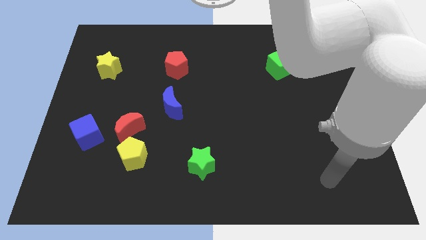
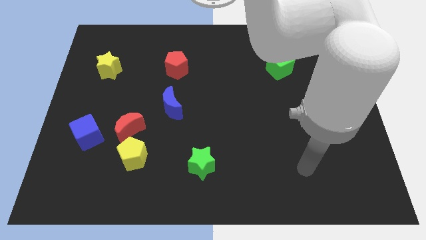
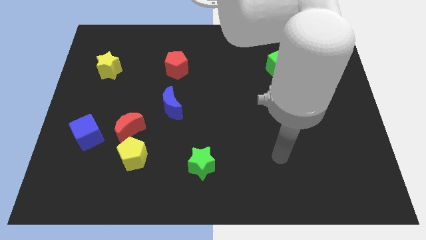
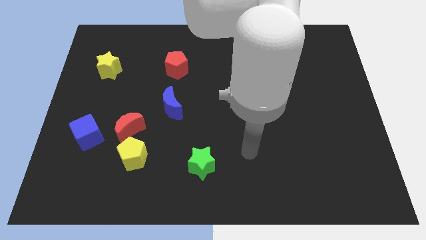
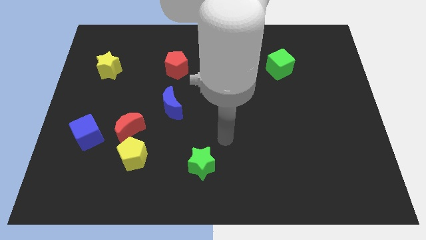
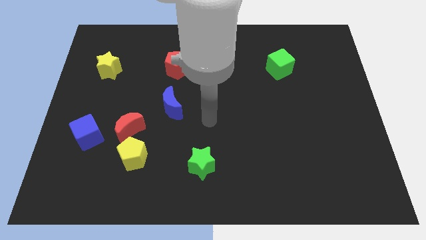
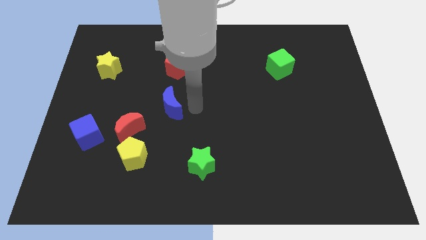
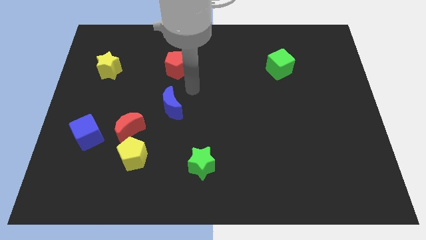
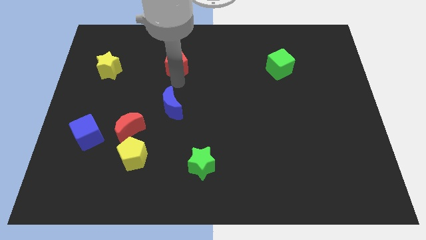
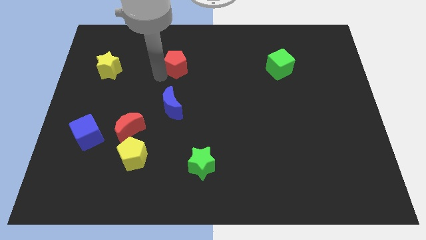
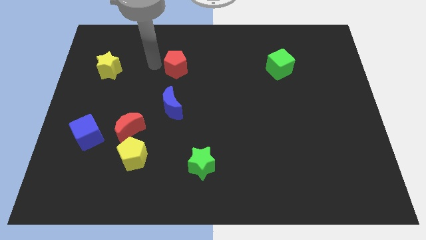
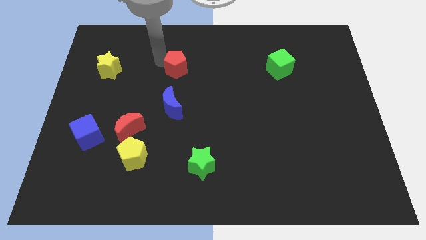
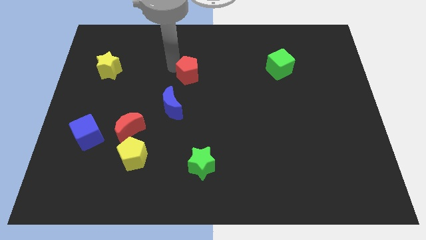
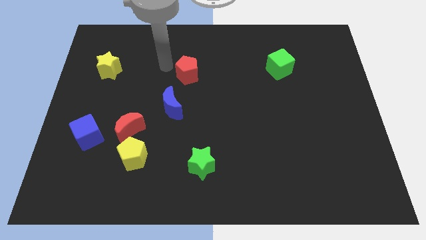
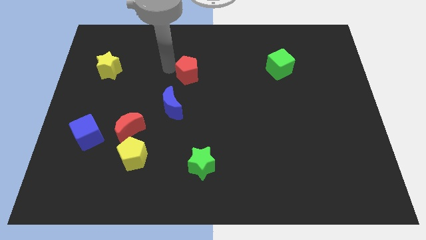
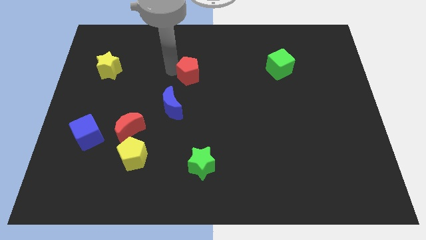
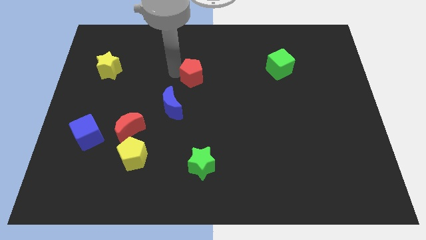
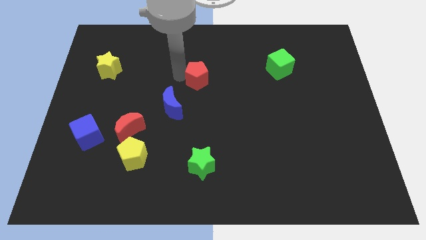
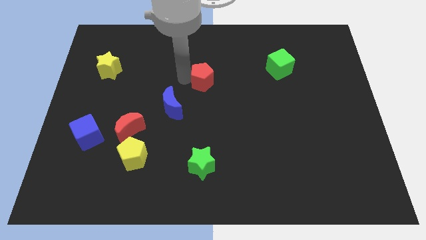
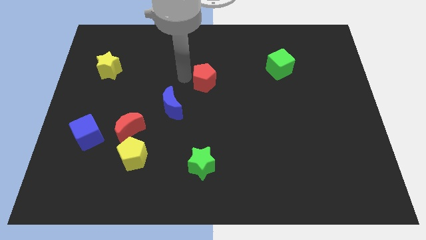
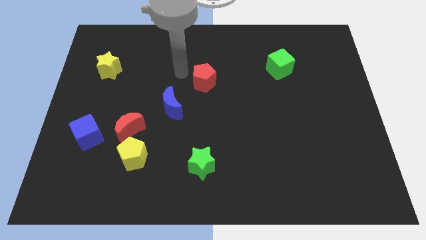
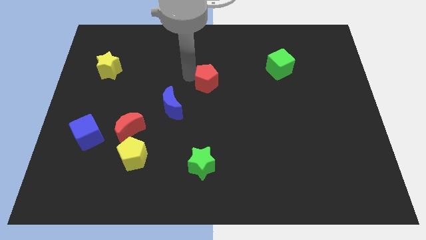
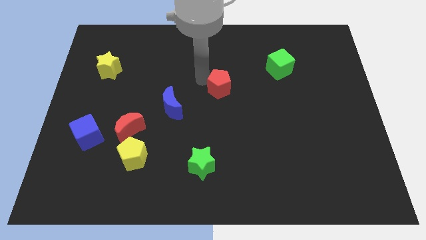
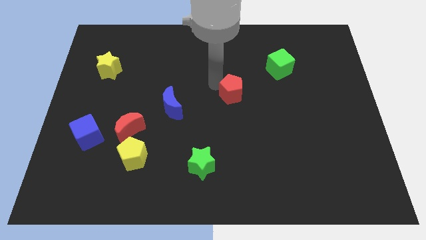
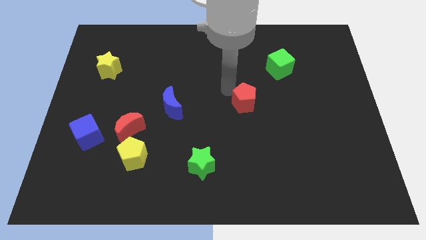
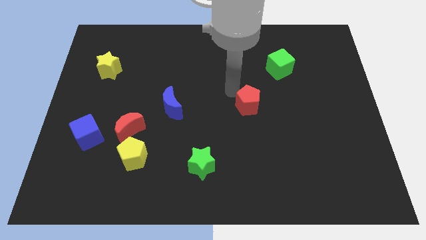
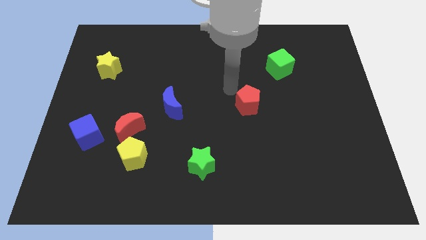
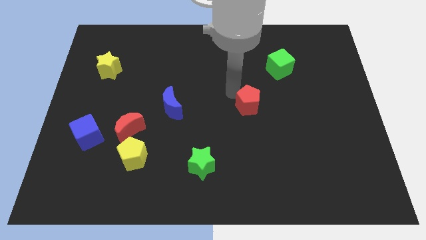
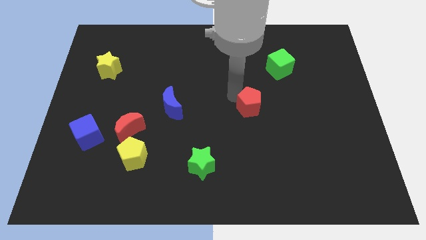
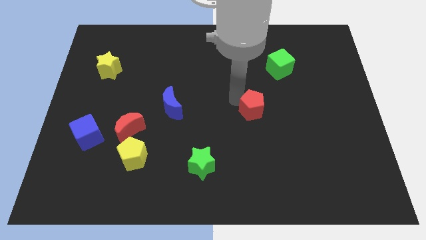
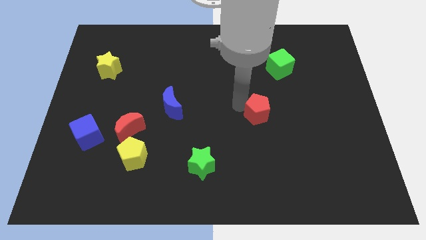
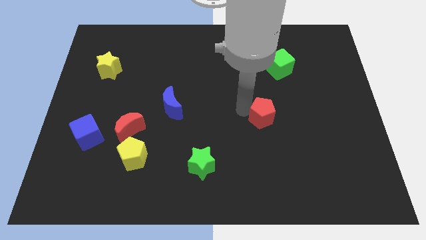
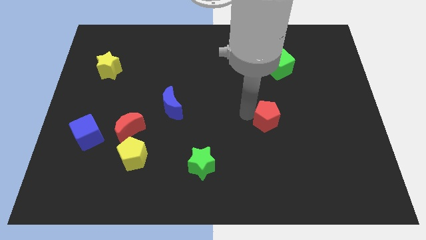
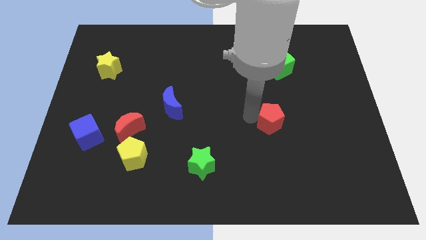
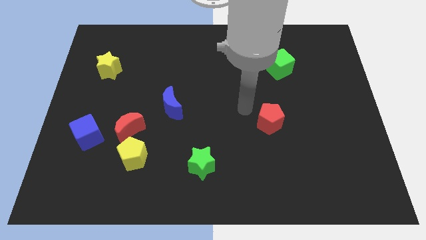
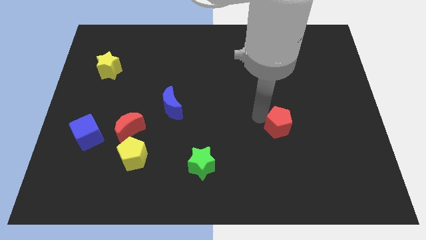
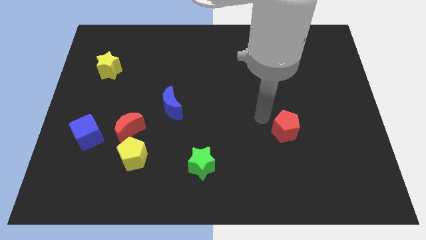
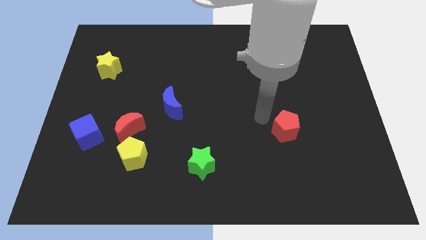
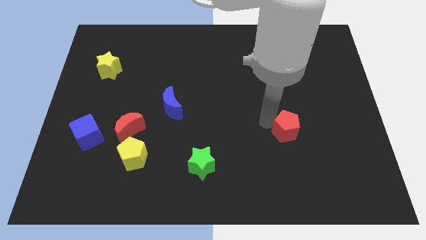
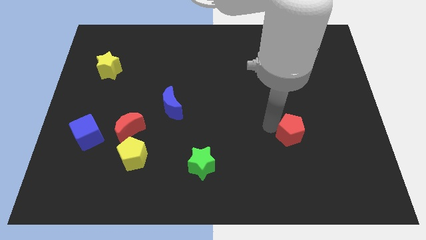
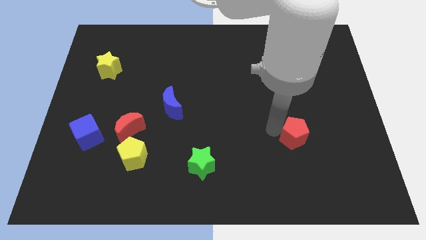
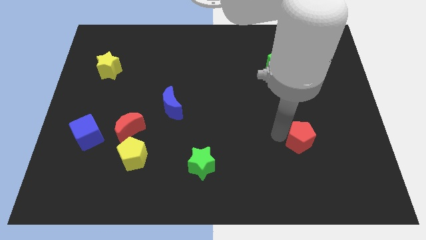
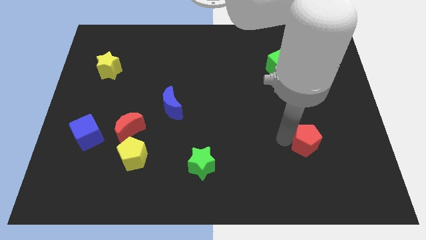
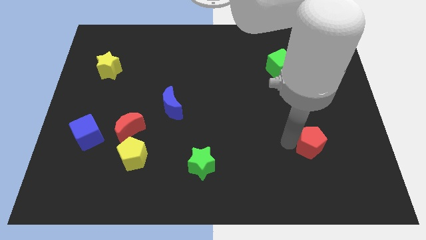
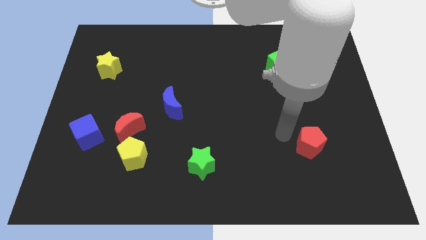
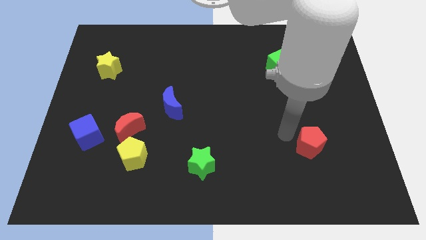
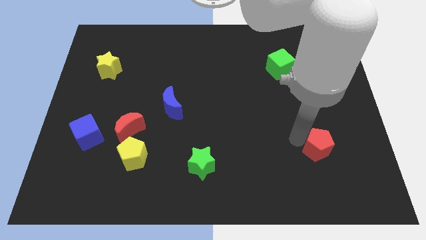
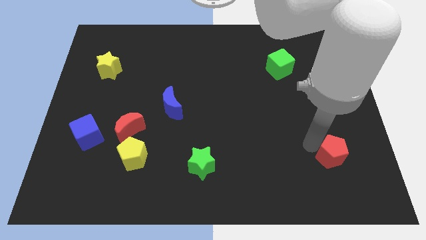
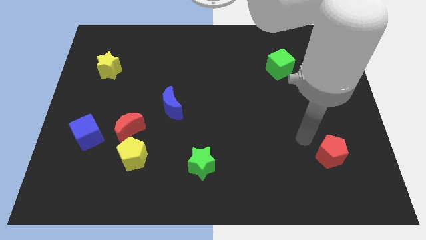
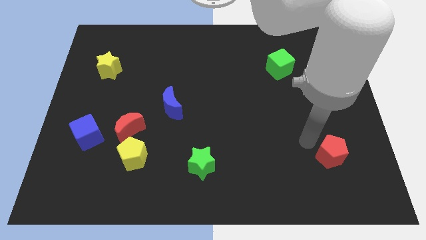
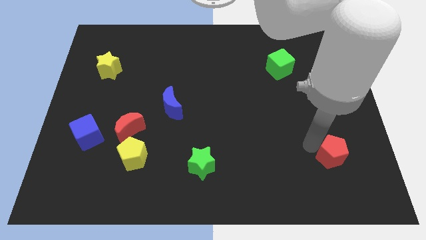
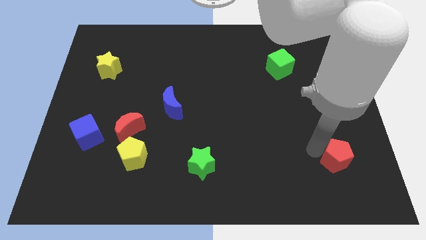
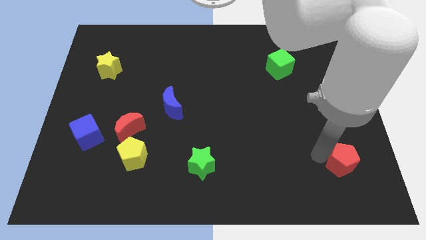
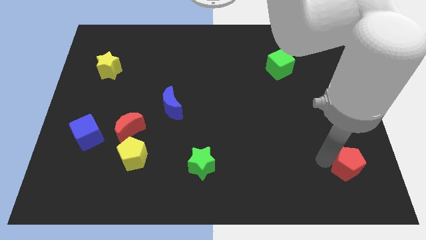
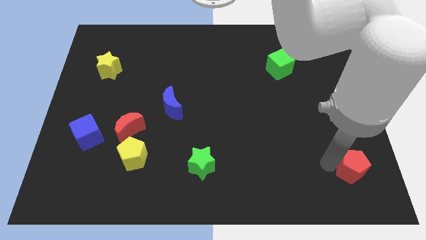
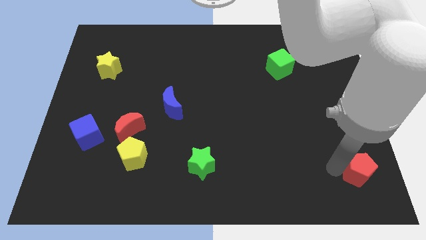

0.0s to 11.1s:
put the red pentagon to the bottom right

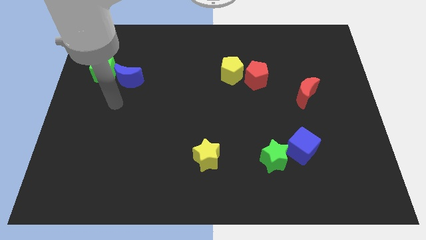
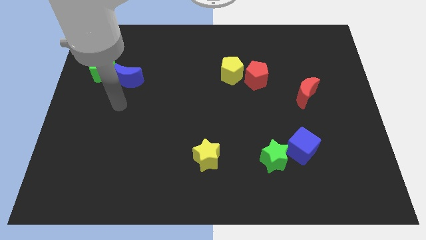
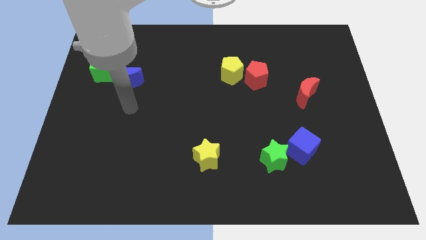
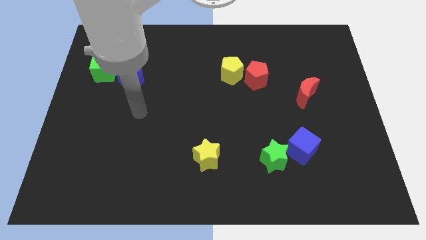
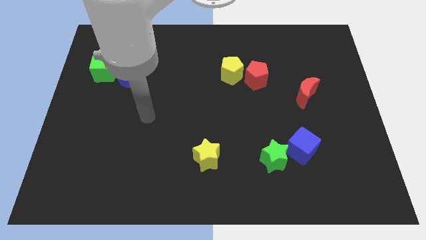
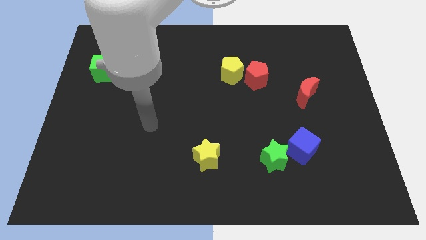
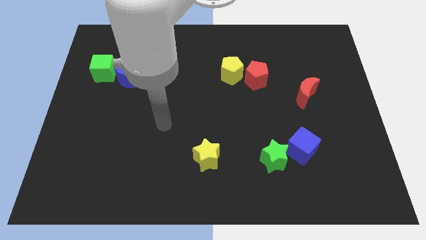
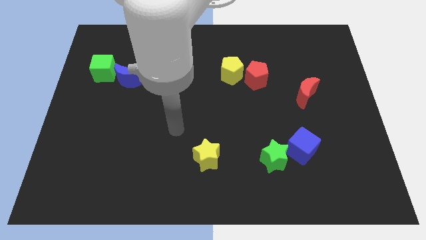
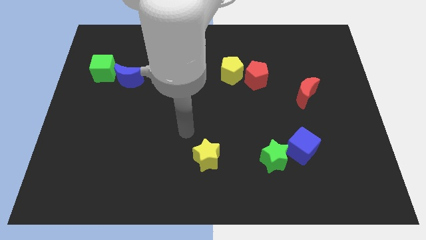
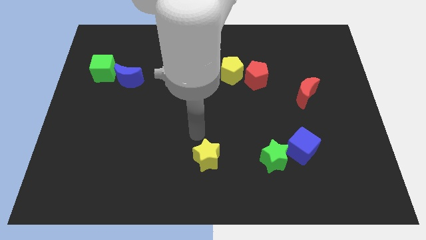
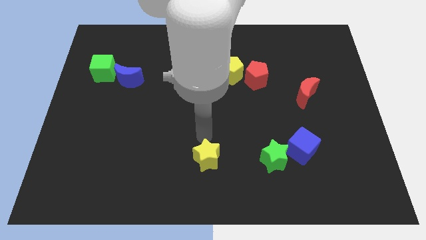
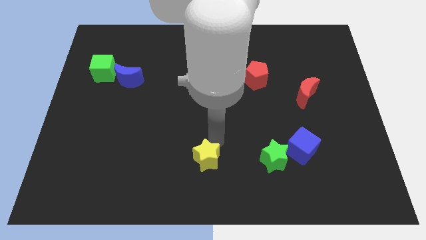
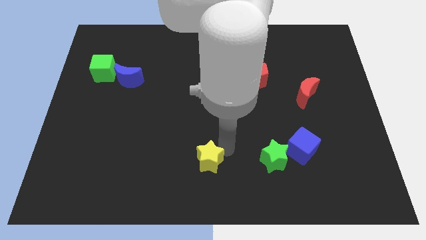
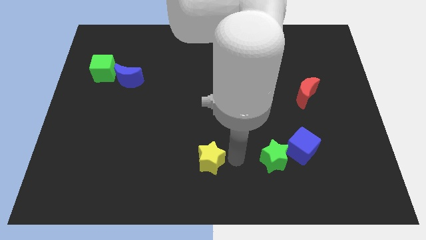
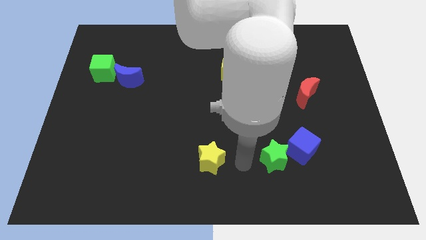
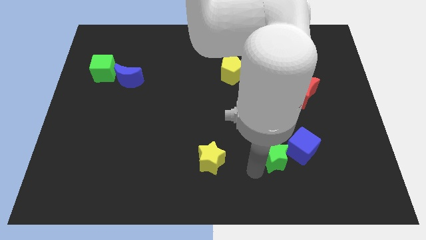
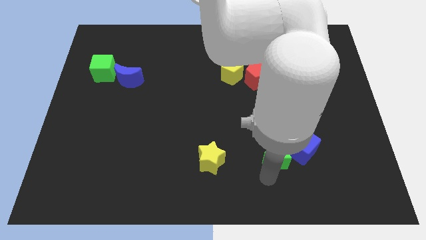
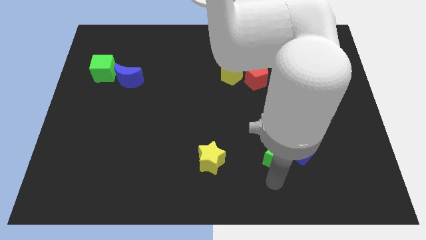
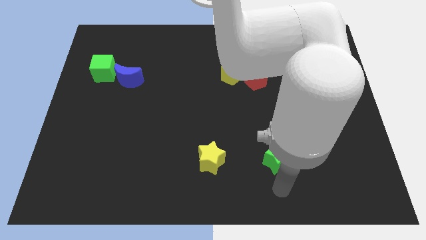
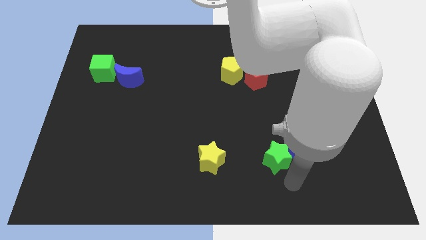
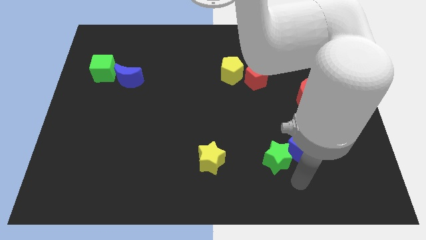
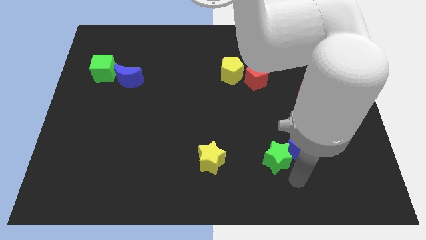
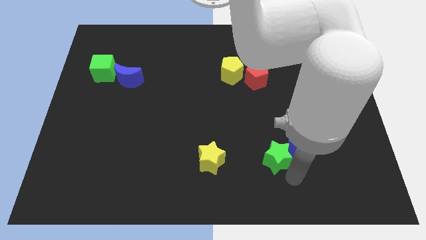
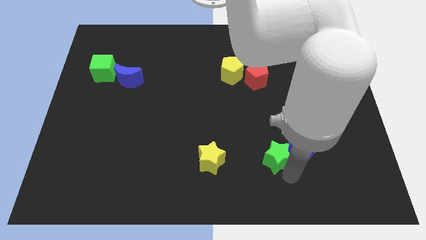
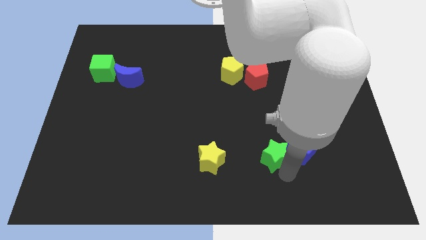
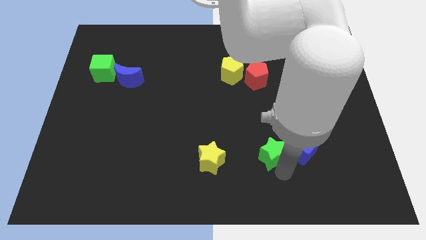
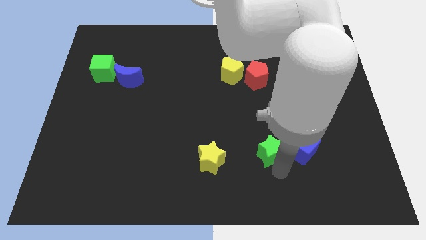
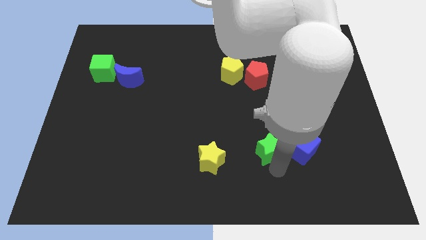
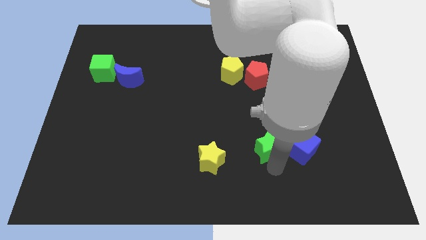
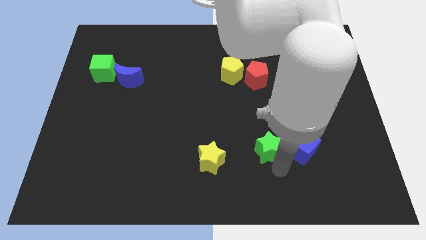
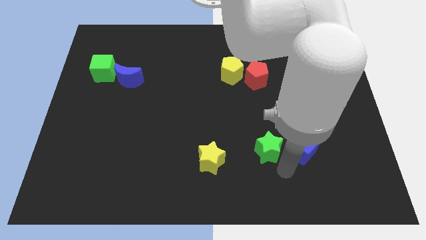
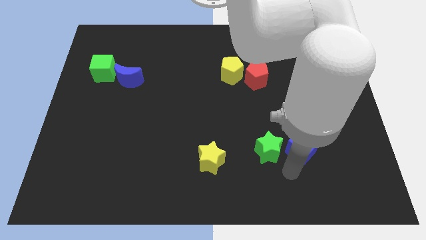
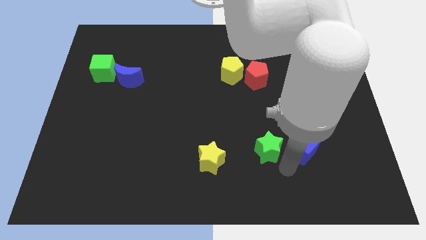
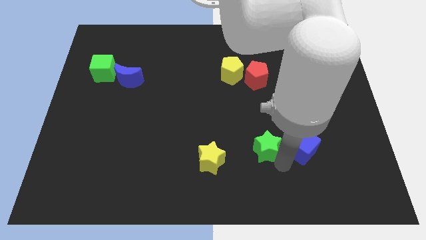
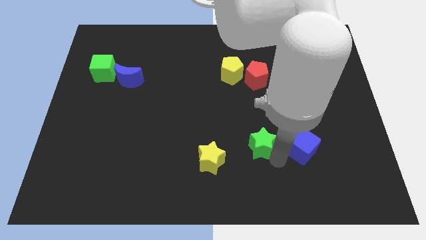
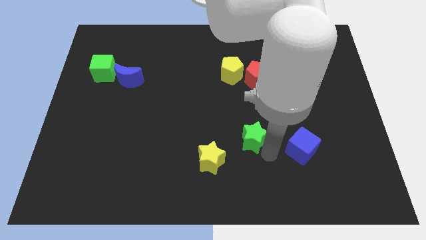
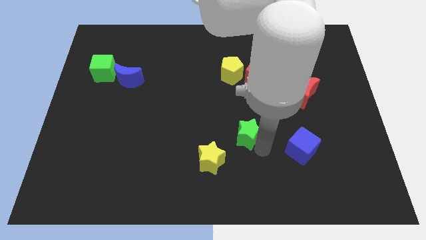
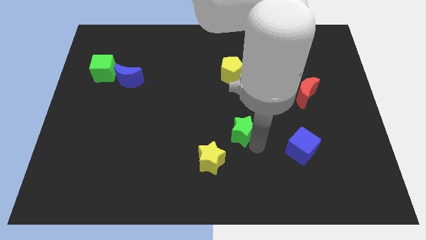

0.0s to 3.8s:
put the green star to the middle
